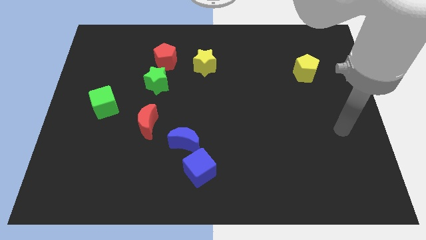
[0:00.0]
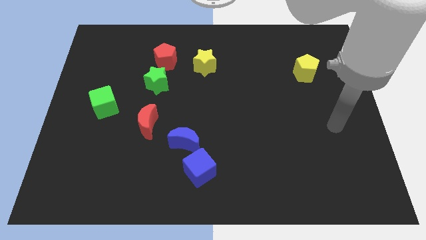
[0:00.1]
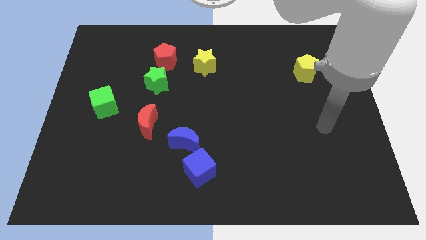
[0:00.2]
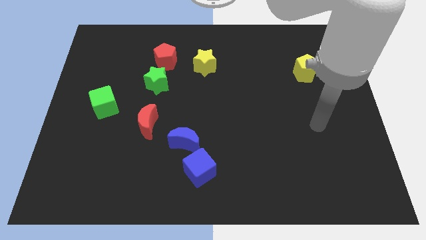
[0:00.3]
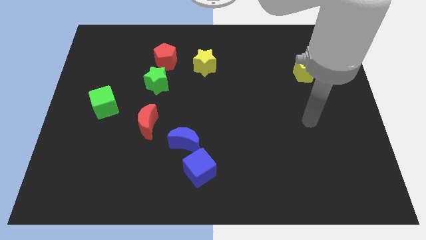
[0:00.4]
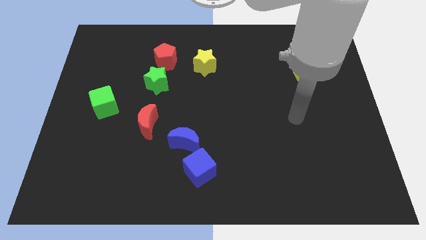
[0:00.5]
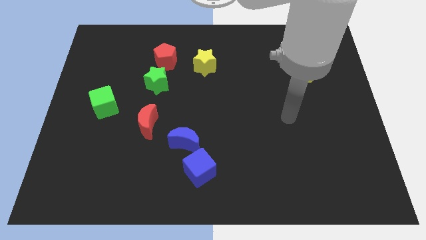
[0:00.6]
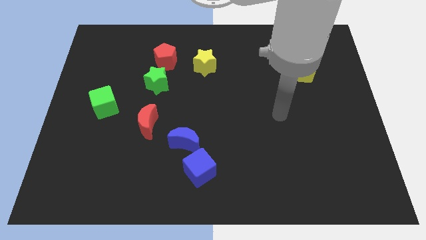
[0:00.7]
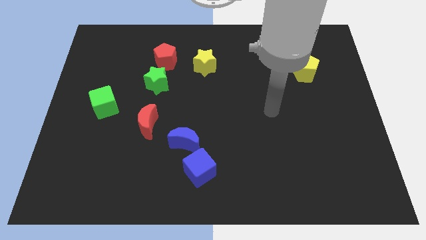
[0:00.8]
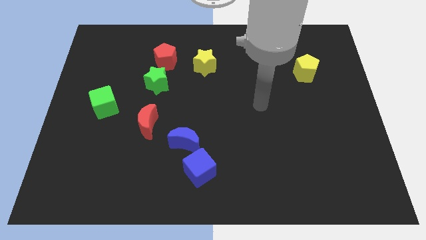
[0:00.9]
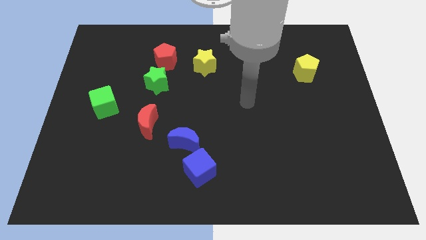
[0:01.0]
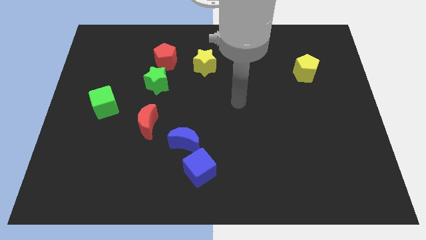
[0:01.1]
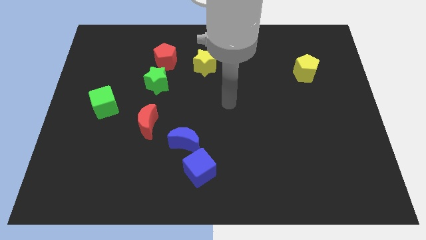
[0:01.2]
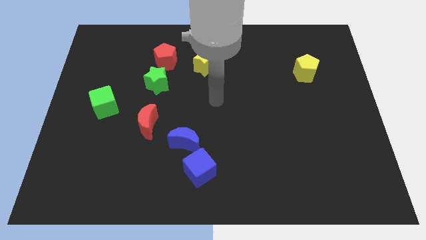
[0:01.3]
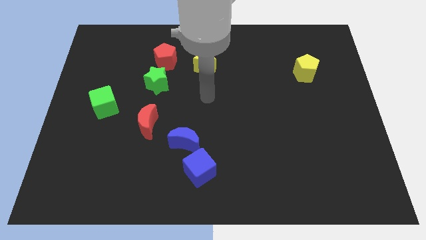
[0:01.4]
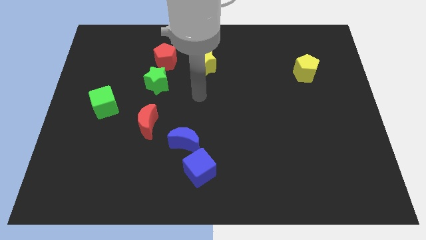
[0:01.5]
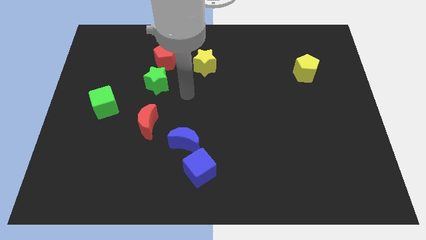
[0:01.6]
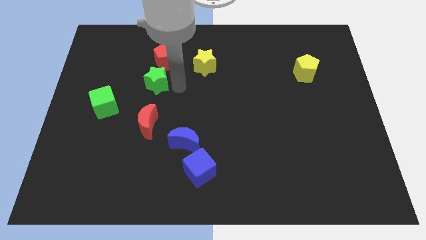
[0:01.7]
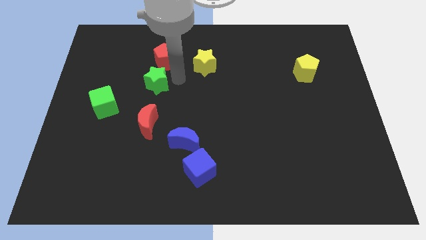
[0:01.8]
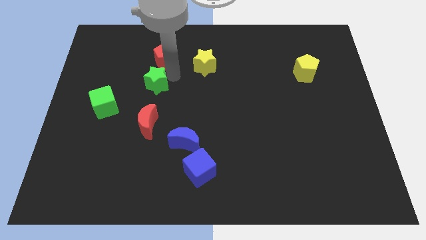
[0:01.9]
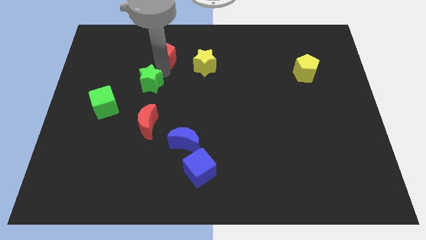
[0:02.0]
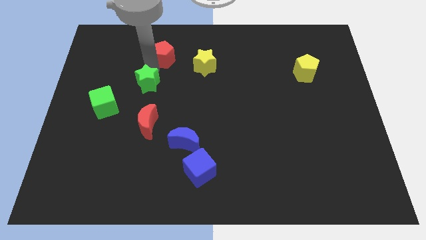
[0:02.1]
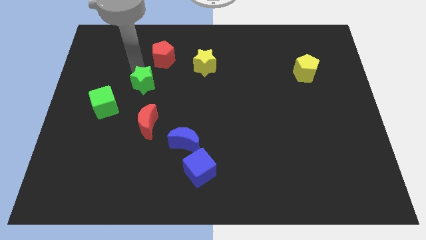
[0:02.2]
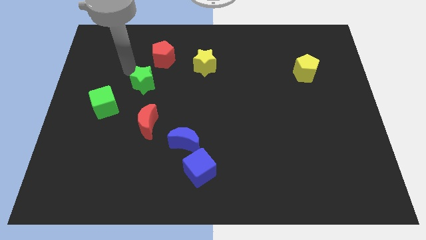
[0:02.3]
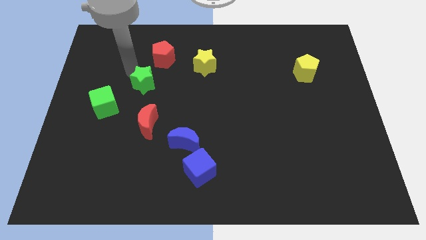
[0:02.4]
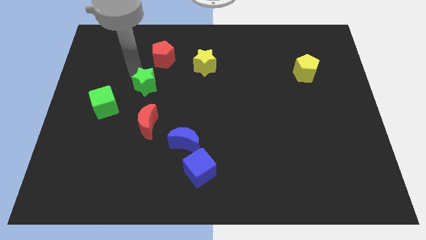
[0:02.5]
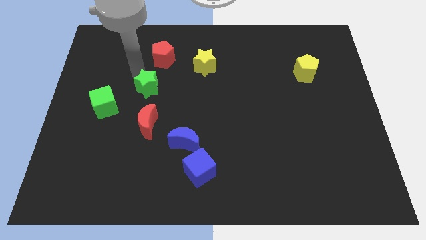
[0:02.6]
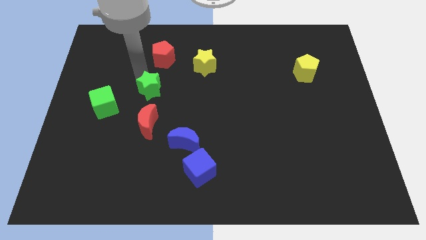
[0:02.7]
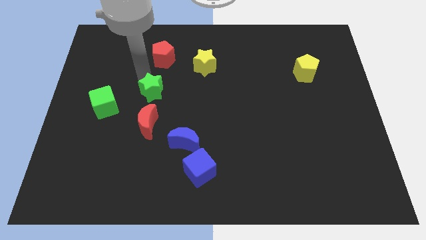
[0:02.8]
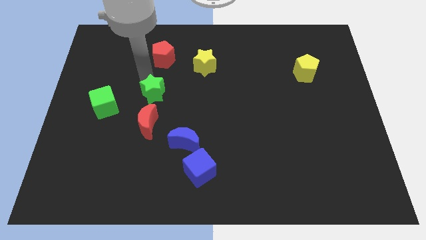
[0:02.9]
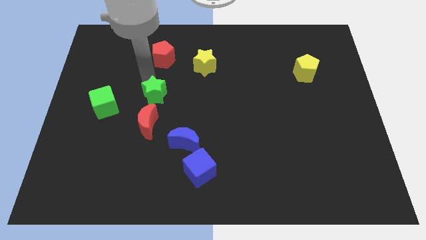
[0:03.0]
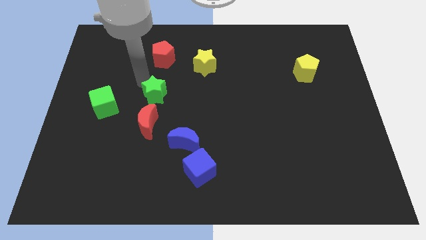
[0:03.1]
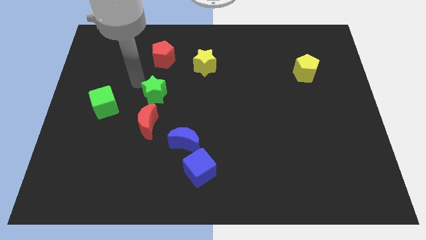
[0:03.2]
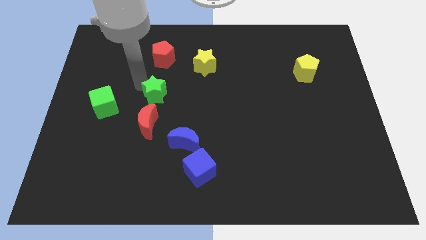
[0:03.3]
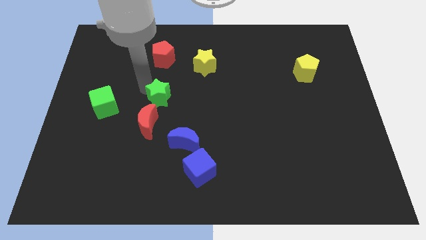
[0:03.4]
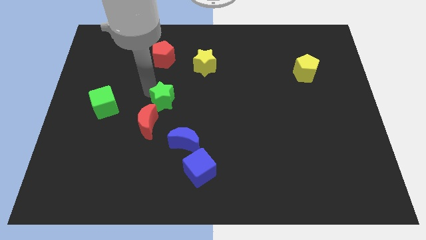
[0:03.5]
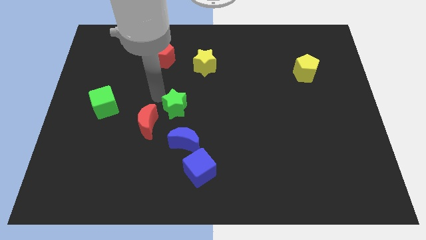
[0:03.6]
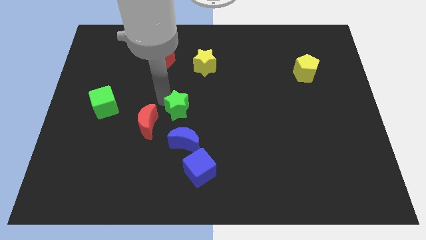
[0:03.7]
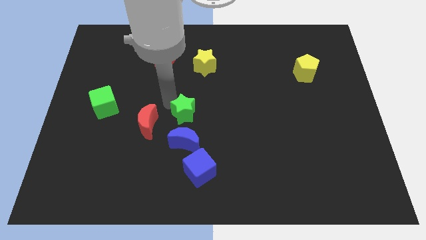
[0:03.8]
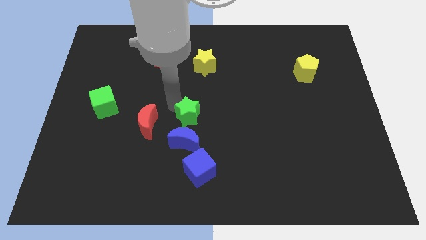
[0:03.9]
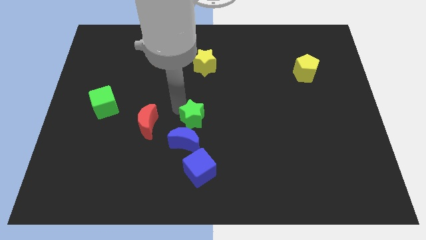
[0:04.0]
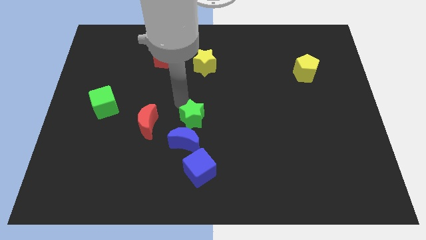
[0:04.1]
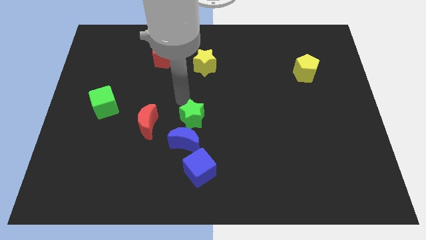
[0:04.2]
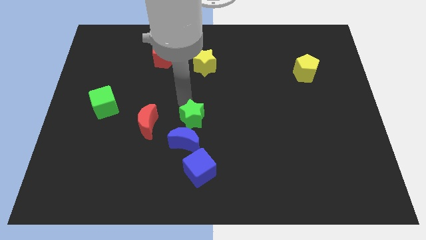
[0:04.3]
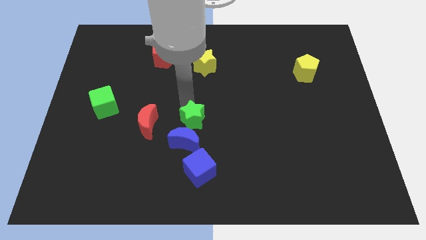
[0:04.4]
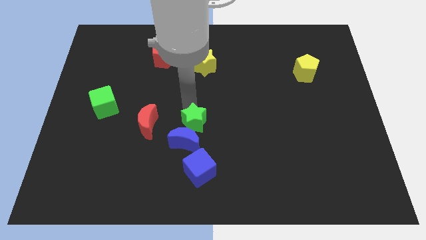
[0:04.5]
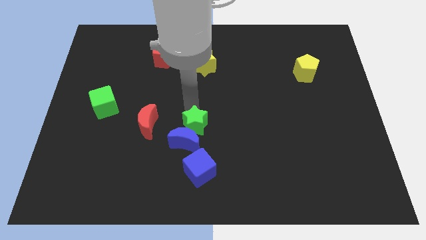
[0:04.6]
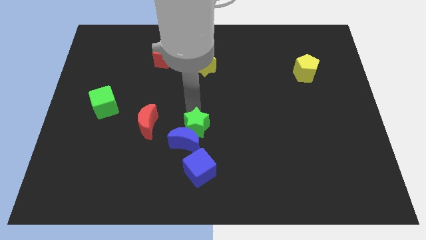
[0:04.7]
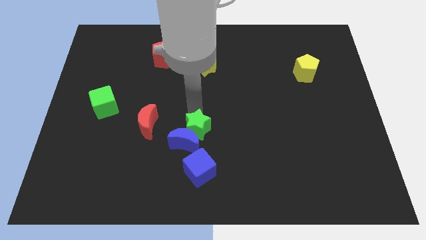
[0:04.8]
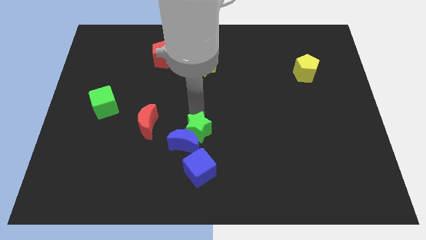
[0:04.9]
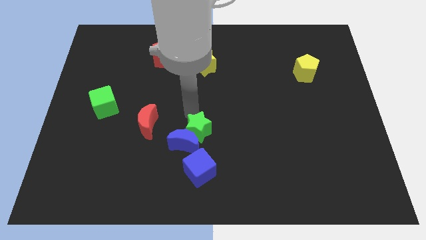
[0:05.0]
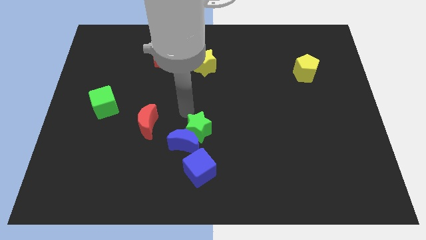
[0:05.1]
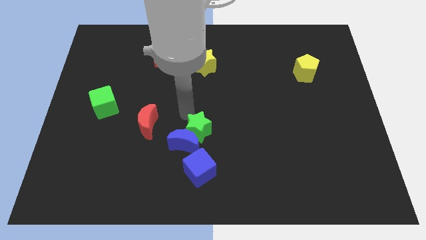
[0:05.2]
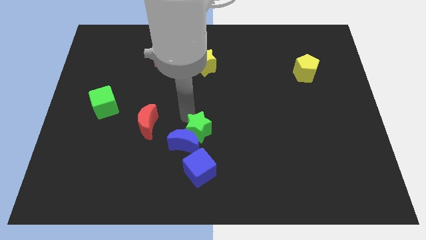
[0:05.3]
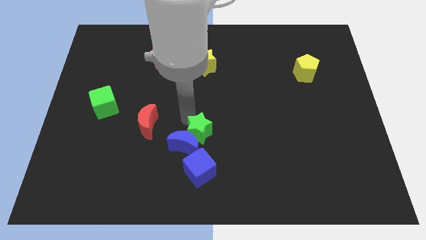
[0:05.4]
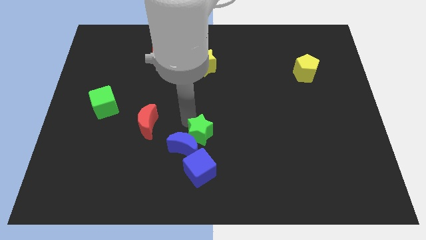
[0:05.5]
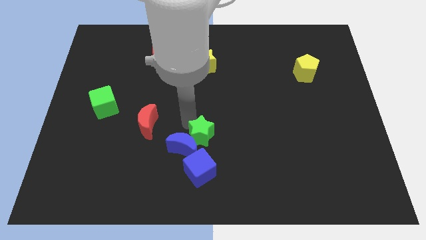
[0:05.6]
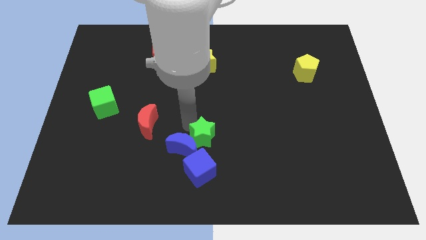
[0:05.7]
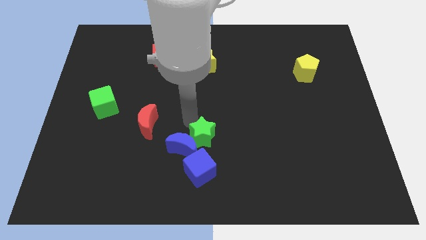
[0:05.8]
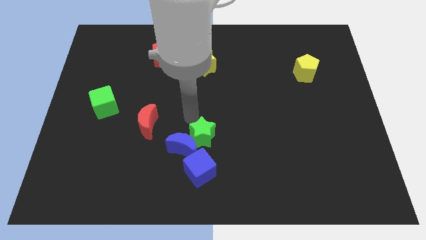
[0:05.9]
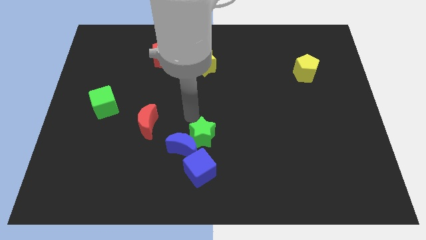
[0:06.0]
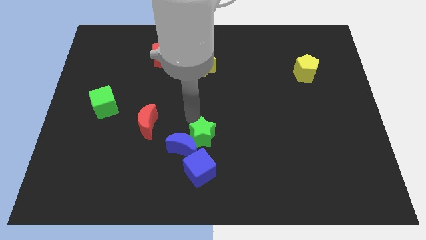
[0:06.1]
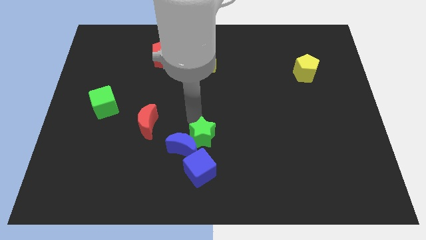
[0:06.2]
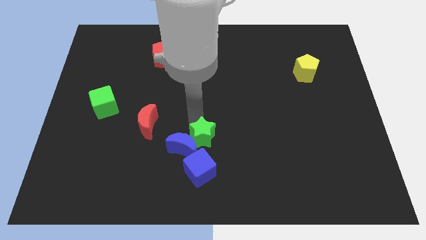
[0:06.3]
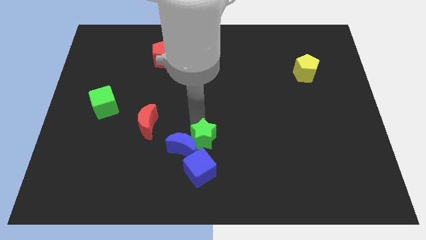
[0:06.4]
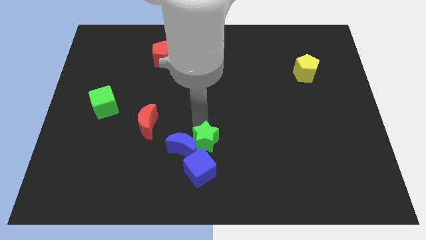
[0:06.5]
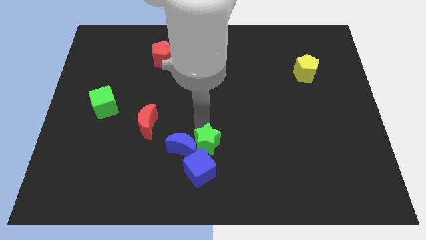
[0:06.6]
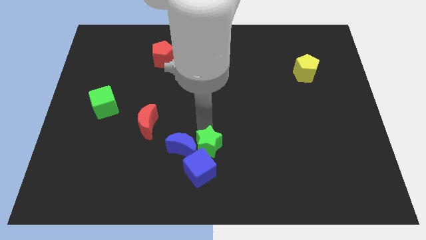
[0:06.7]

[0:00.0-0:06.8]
put the green star next to the blue cube
